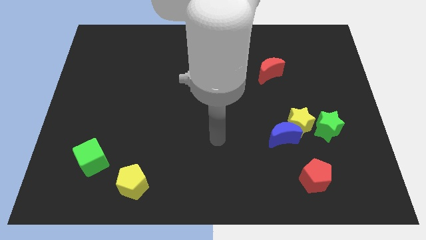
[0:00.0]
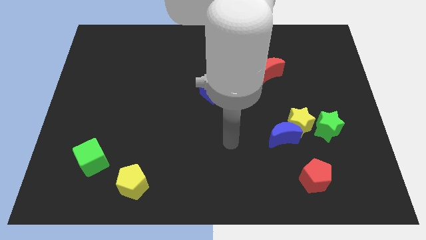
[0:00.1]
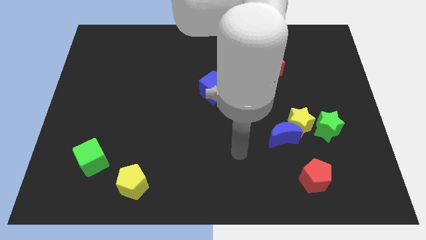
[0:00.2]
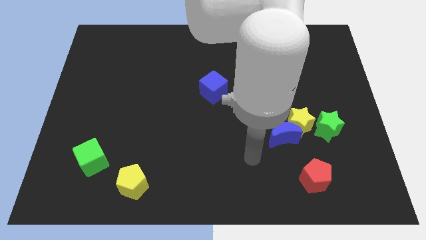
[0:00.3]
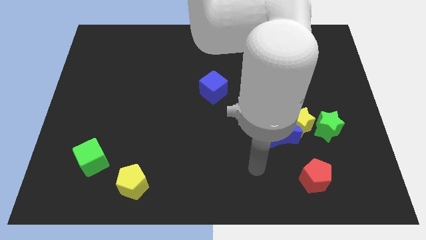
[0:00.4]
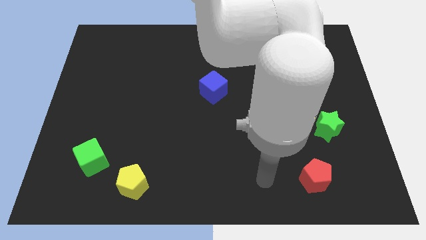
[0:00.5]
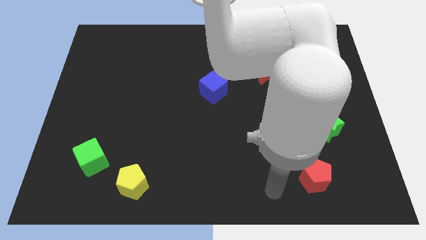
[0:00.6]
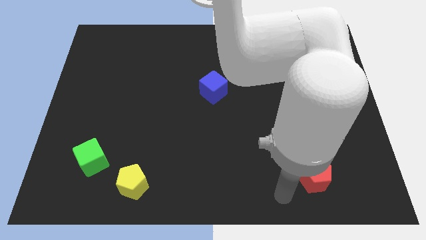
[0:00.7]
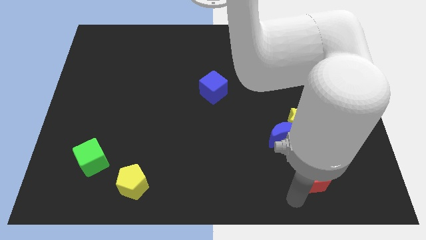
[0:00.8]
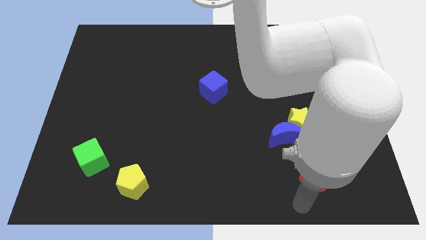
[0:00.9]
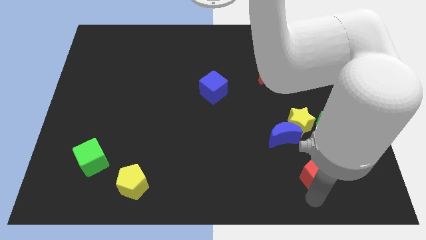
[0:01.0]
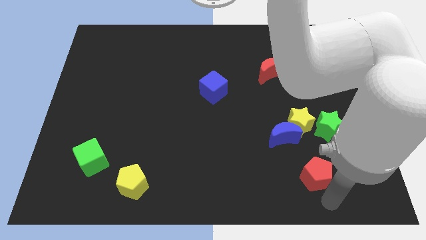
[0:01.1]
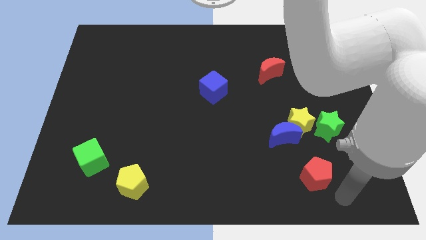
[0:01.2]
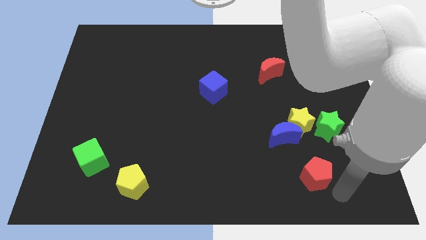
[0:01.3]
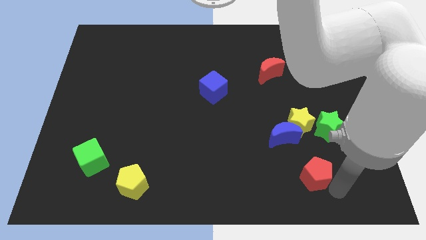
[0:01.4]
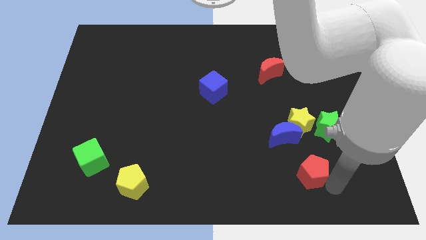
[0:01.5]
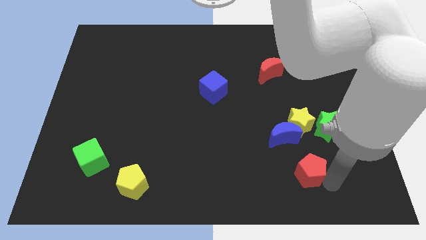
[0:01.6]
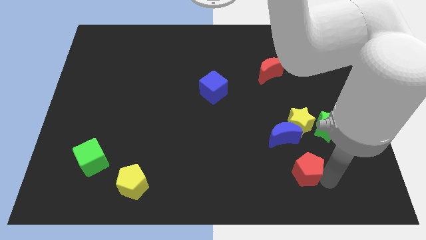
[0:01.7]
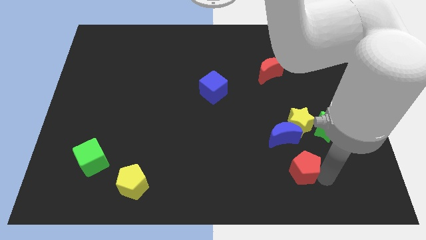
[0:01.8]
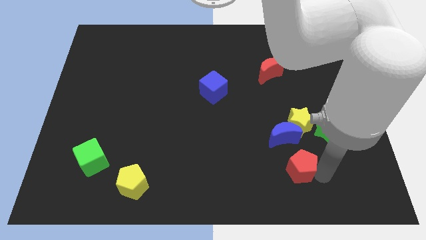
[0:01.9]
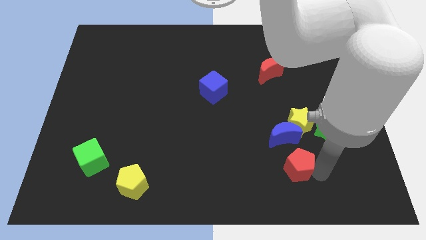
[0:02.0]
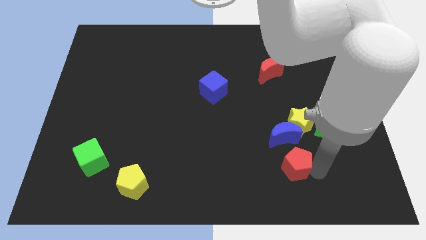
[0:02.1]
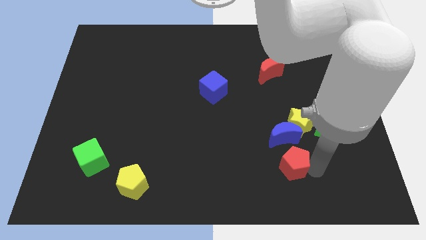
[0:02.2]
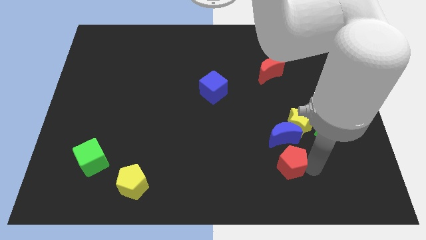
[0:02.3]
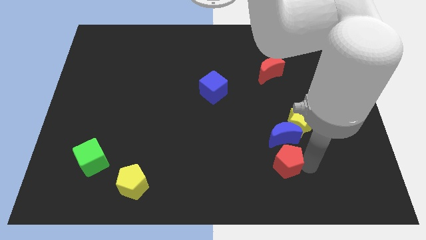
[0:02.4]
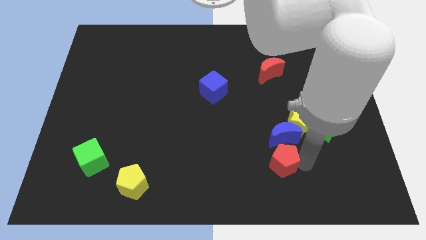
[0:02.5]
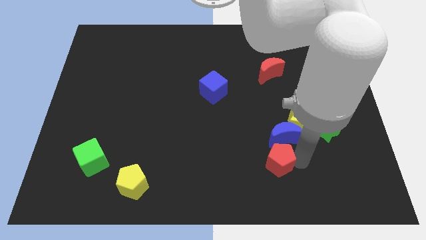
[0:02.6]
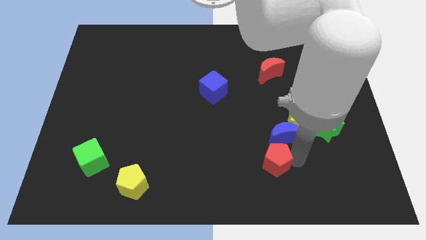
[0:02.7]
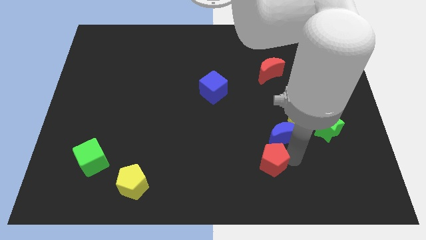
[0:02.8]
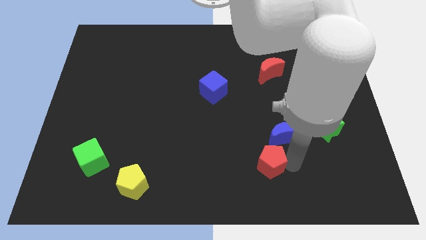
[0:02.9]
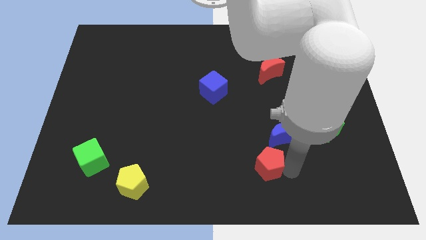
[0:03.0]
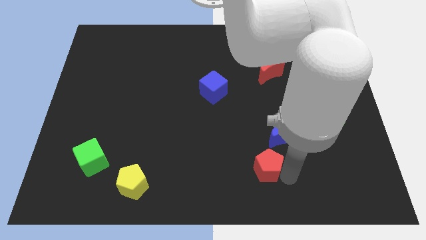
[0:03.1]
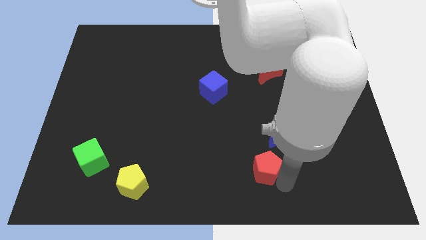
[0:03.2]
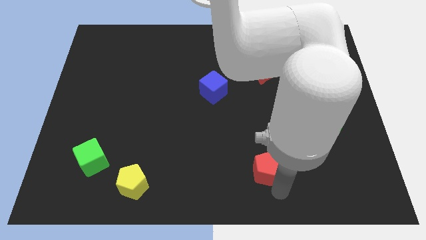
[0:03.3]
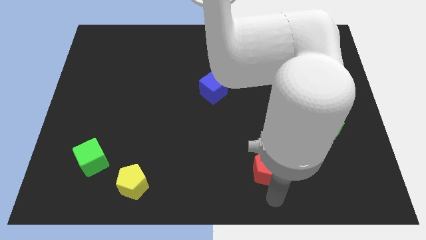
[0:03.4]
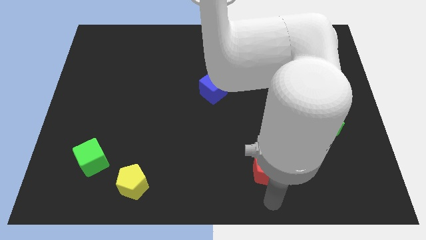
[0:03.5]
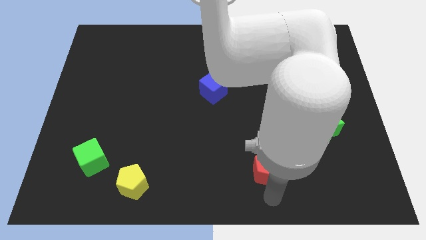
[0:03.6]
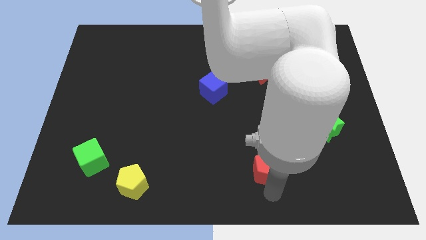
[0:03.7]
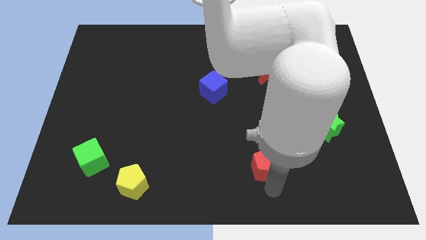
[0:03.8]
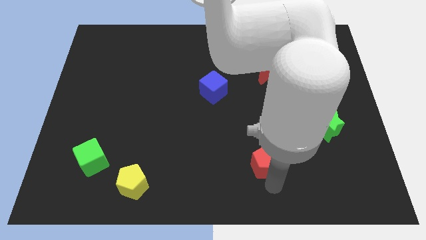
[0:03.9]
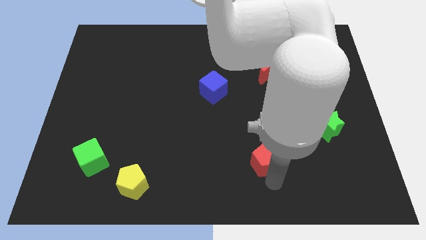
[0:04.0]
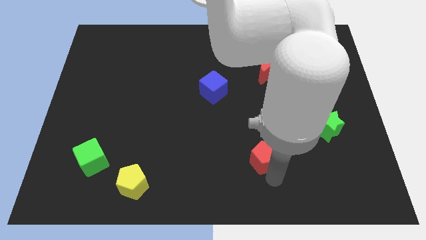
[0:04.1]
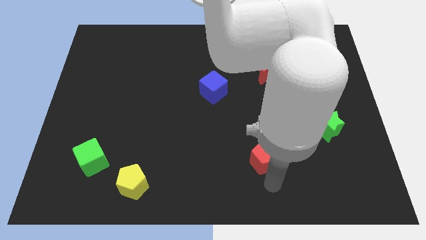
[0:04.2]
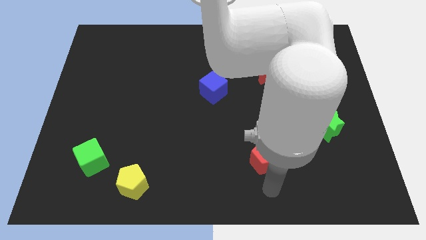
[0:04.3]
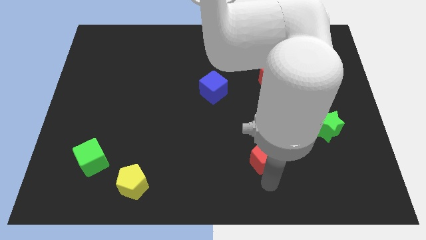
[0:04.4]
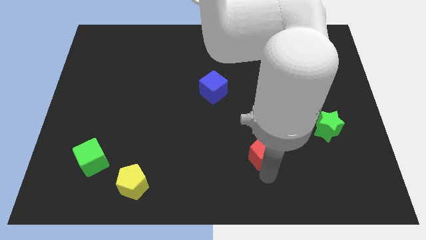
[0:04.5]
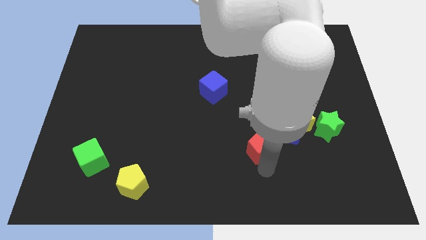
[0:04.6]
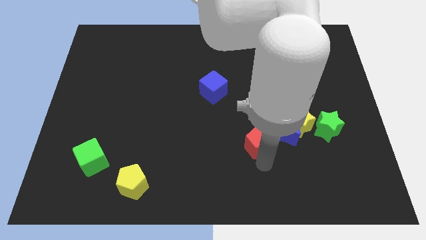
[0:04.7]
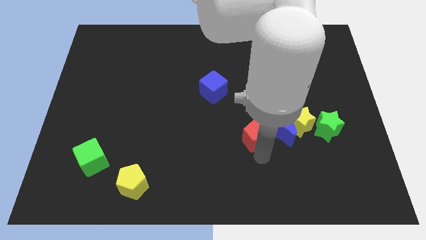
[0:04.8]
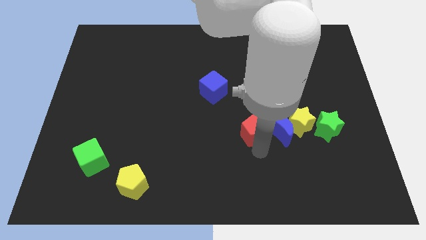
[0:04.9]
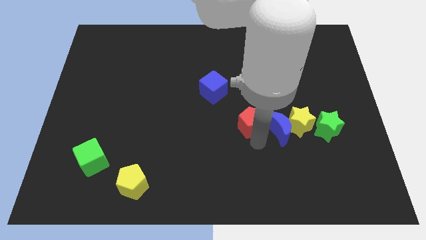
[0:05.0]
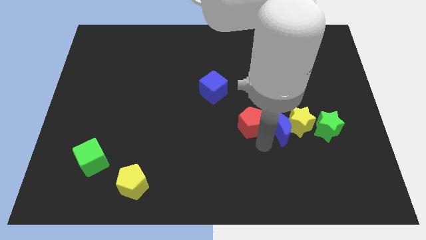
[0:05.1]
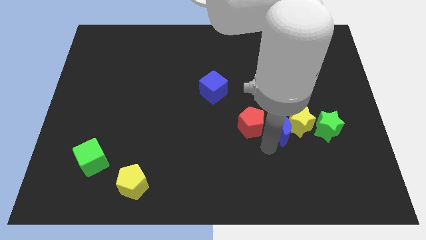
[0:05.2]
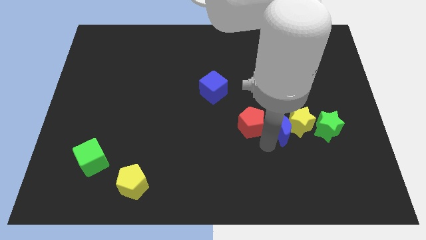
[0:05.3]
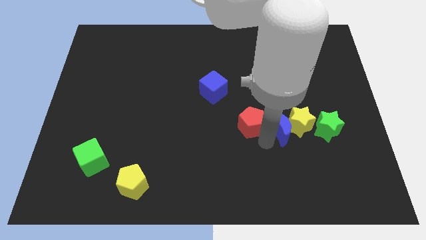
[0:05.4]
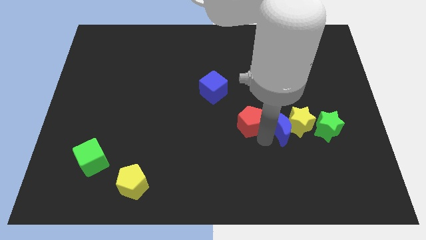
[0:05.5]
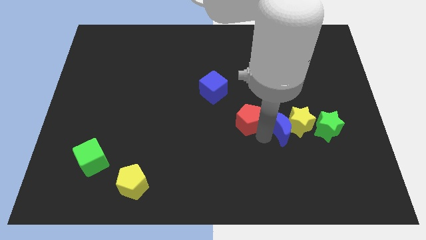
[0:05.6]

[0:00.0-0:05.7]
push the red pentagon diagonally down and to the right of the blue cube

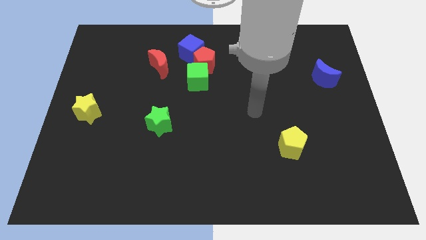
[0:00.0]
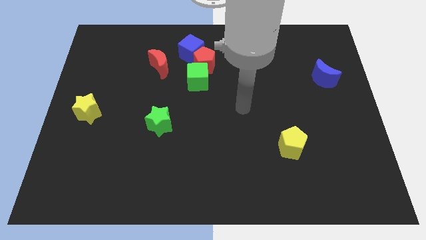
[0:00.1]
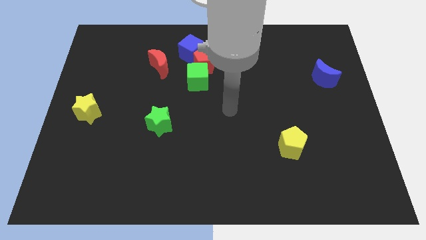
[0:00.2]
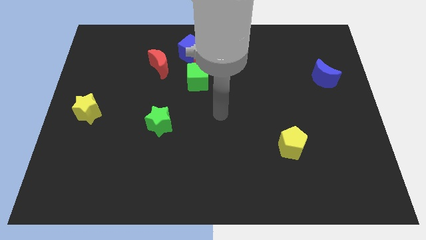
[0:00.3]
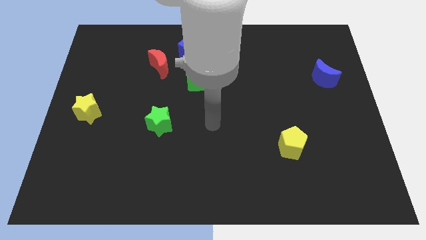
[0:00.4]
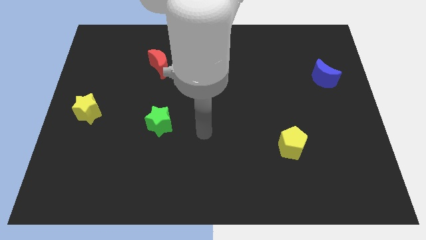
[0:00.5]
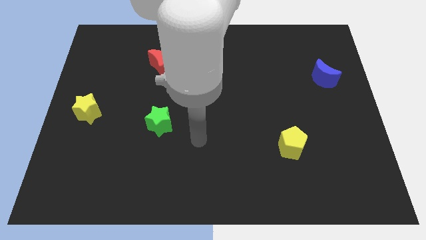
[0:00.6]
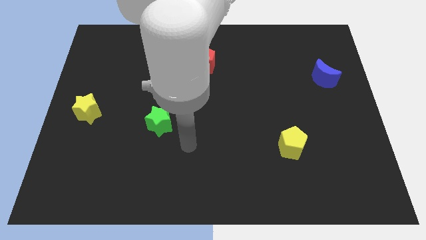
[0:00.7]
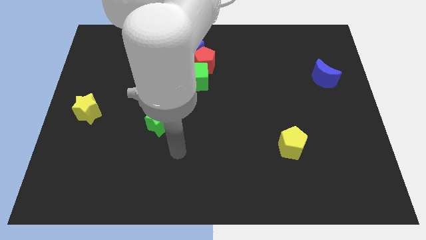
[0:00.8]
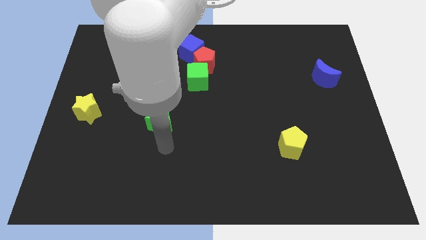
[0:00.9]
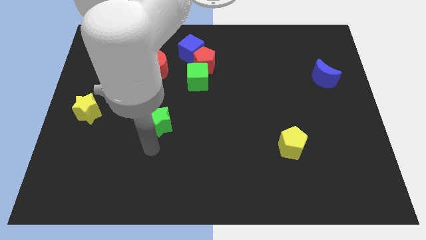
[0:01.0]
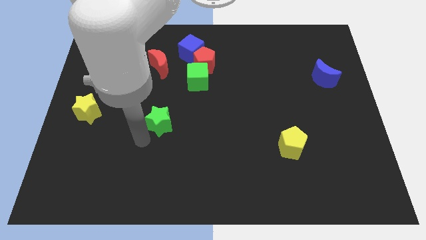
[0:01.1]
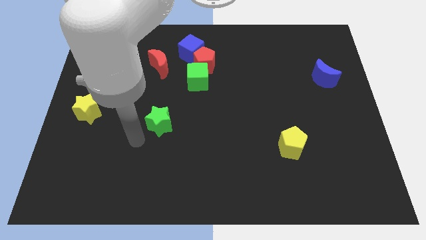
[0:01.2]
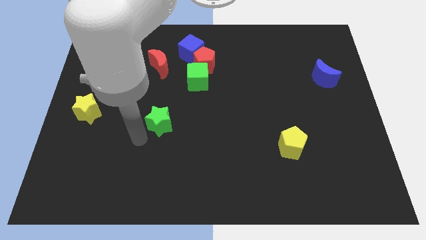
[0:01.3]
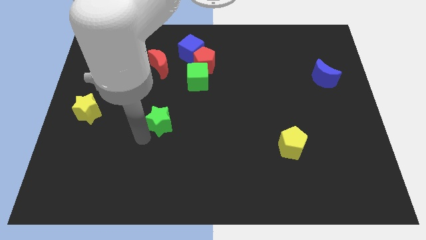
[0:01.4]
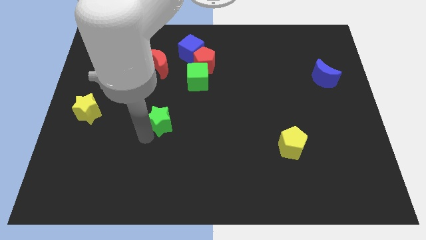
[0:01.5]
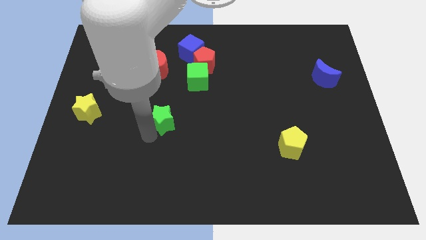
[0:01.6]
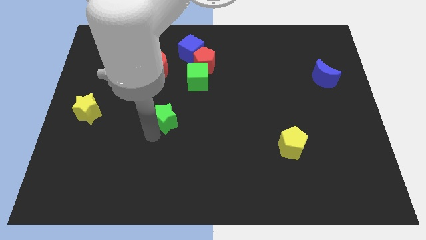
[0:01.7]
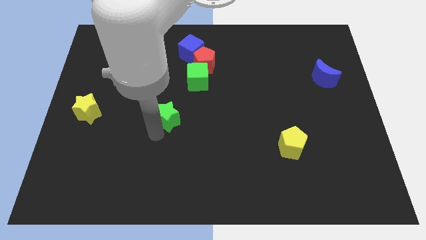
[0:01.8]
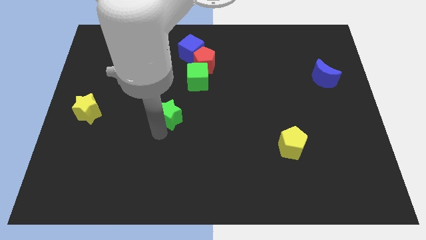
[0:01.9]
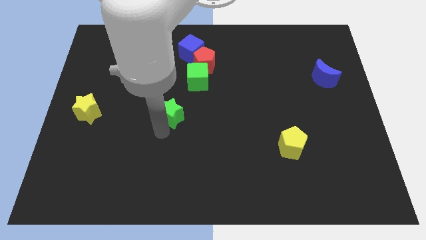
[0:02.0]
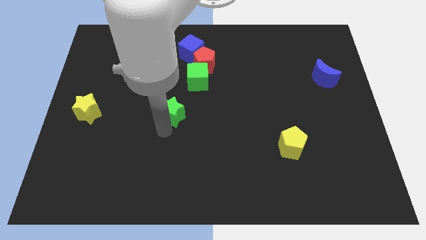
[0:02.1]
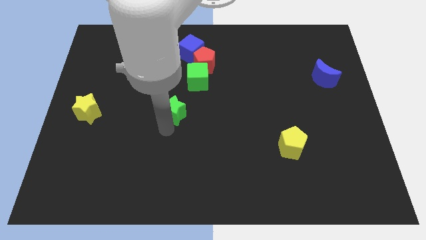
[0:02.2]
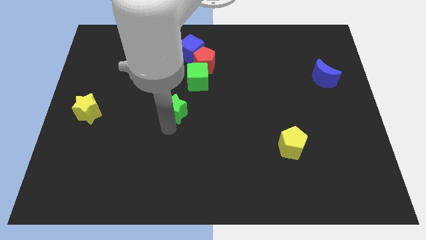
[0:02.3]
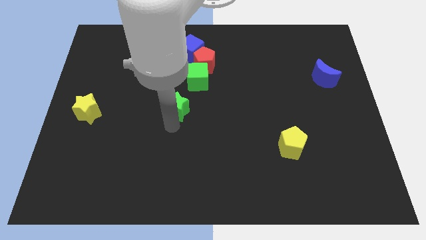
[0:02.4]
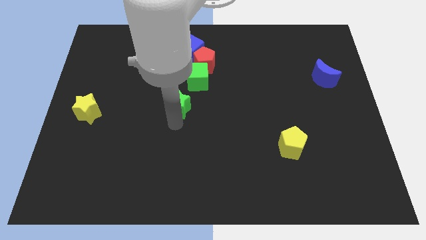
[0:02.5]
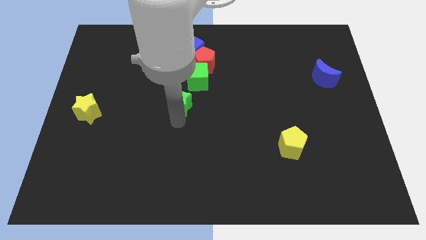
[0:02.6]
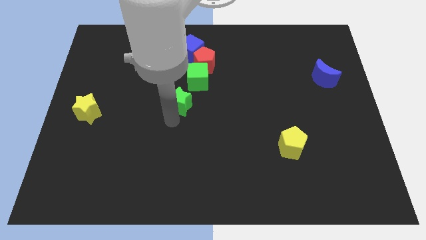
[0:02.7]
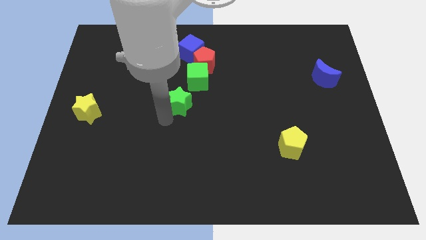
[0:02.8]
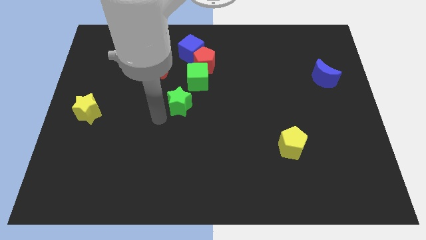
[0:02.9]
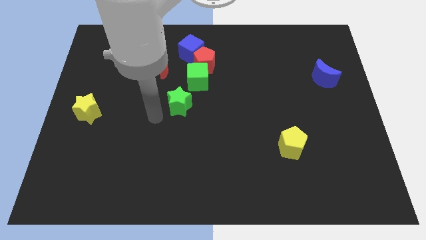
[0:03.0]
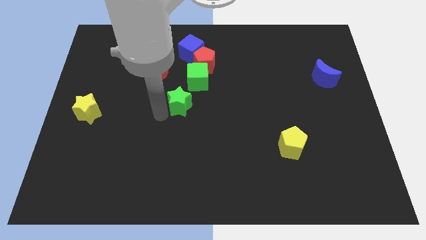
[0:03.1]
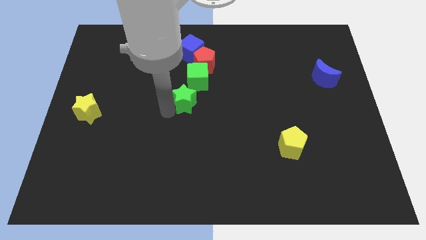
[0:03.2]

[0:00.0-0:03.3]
slide the green star to the bottom of the red pentagon
